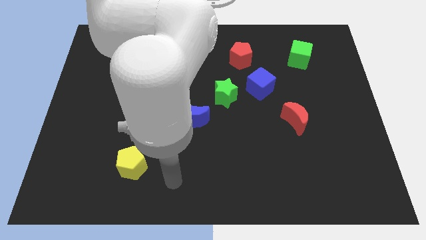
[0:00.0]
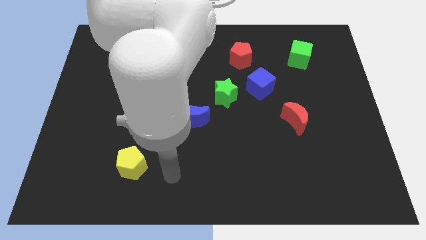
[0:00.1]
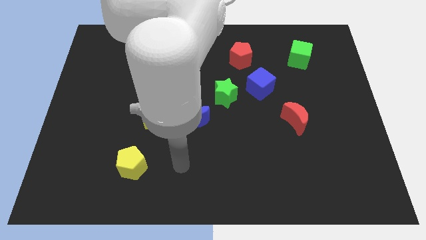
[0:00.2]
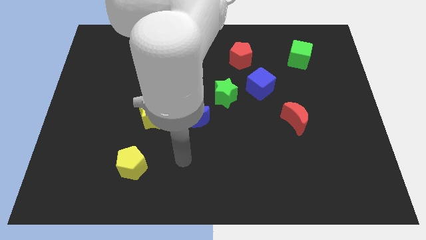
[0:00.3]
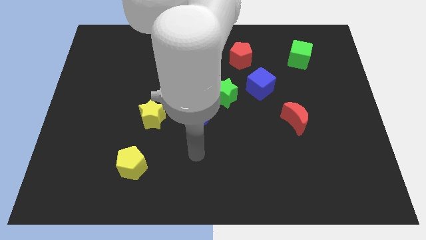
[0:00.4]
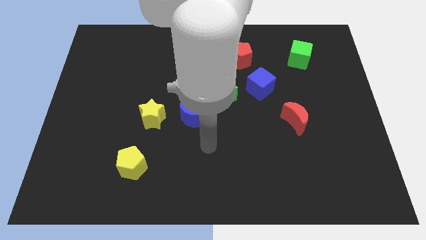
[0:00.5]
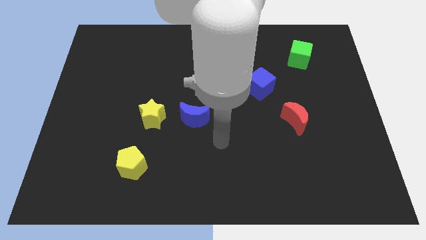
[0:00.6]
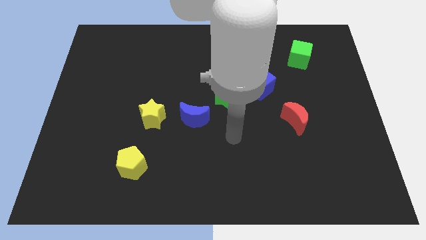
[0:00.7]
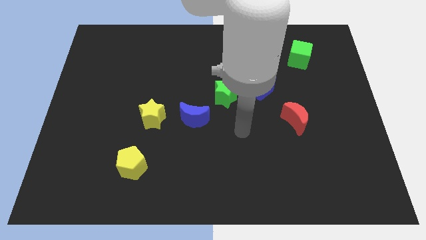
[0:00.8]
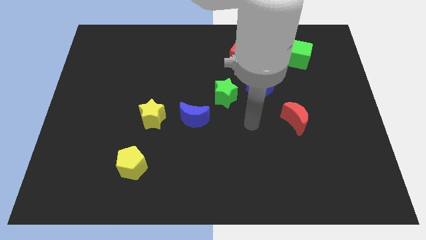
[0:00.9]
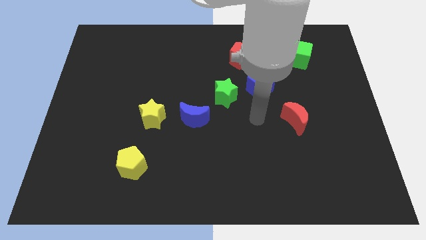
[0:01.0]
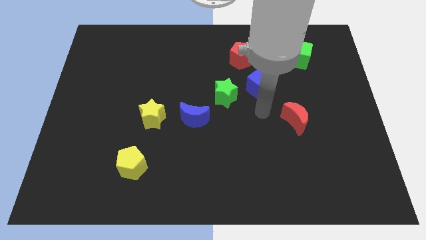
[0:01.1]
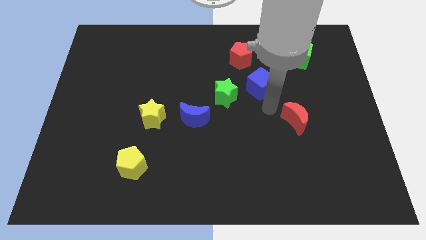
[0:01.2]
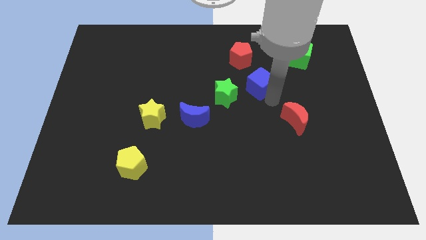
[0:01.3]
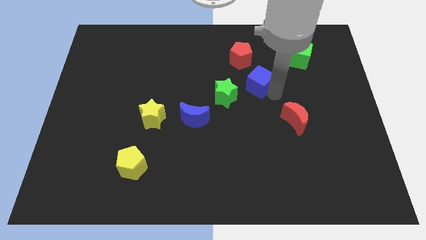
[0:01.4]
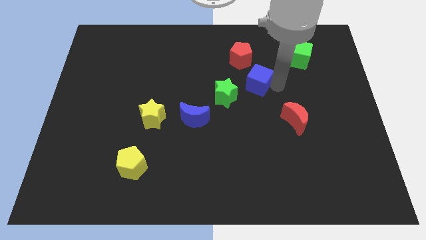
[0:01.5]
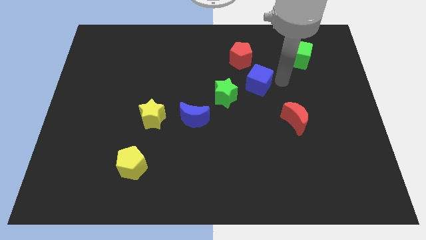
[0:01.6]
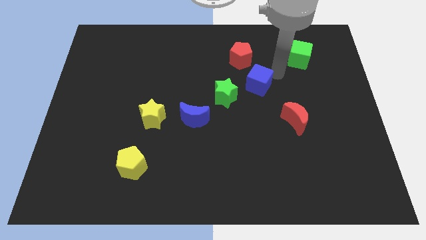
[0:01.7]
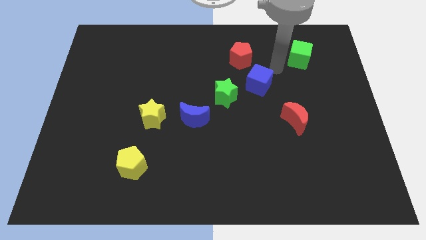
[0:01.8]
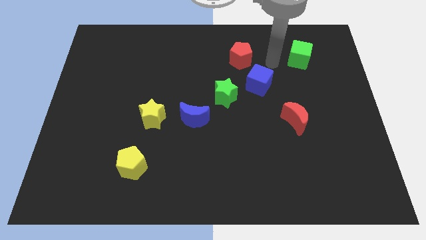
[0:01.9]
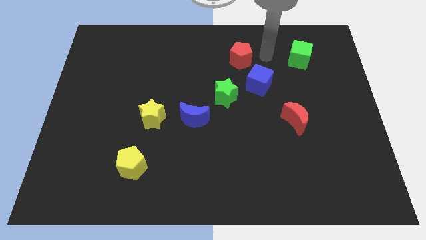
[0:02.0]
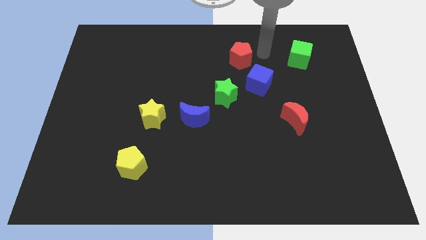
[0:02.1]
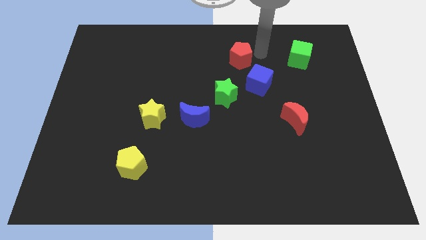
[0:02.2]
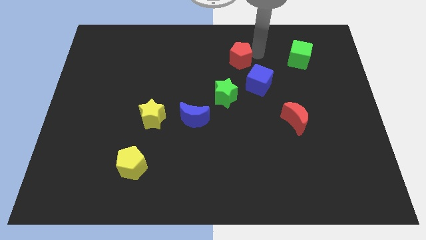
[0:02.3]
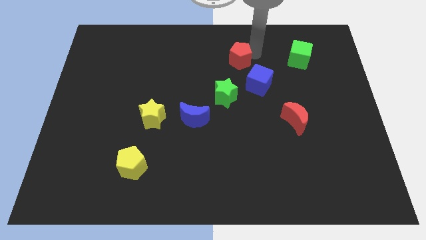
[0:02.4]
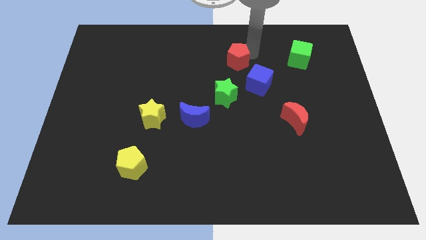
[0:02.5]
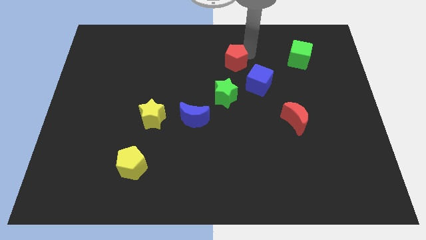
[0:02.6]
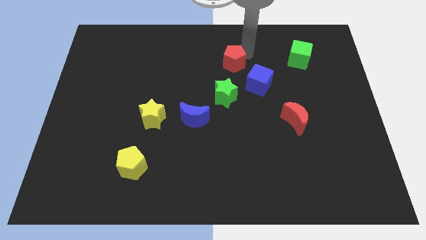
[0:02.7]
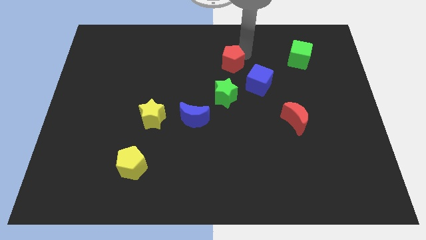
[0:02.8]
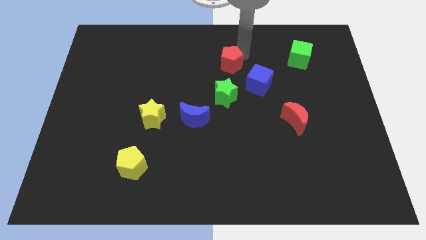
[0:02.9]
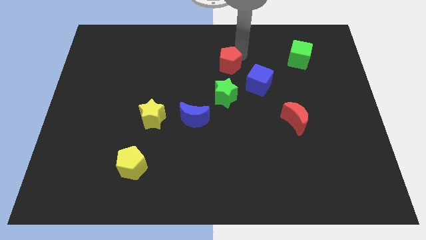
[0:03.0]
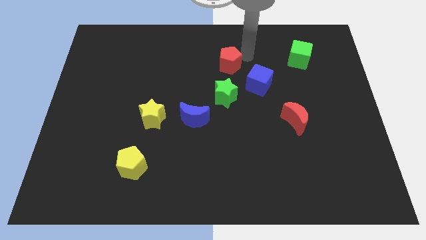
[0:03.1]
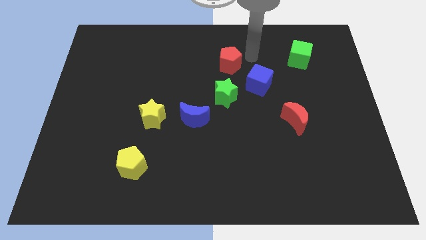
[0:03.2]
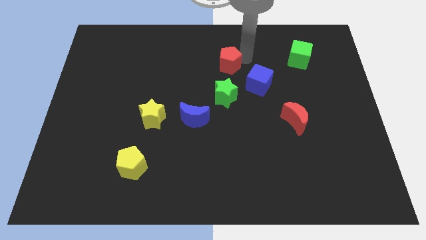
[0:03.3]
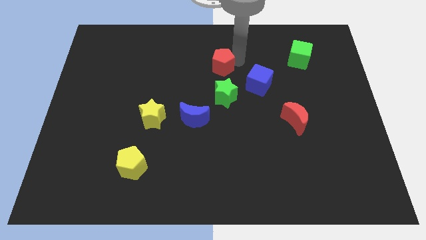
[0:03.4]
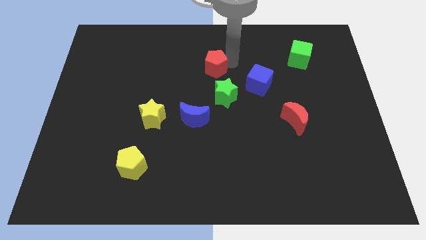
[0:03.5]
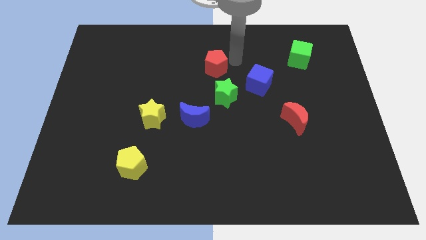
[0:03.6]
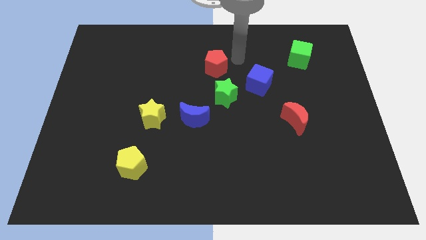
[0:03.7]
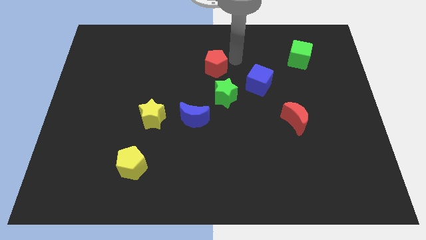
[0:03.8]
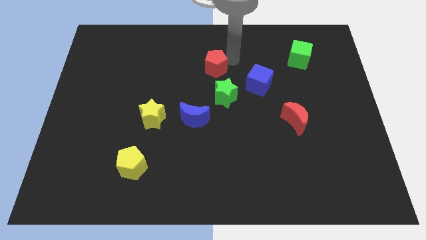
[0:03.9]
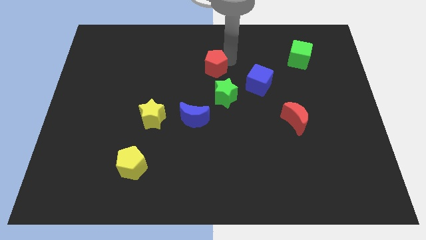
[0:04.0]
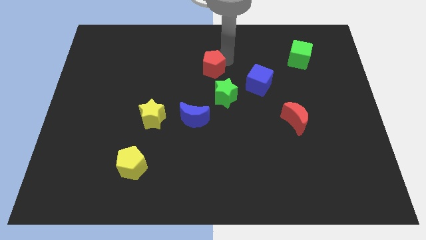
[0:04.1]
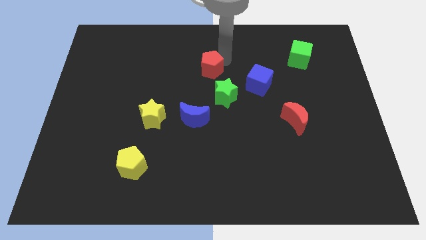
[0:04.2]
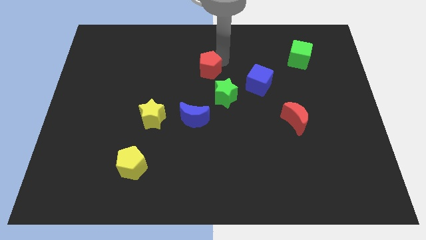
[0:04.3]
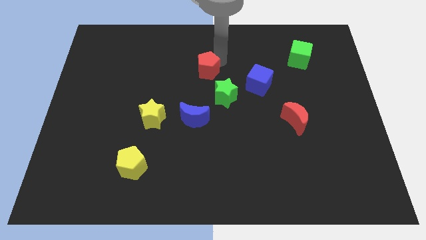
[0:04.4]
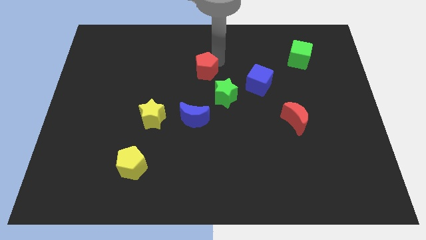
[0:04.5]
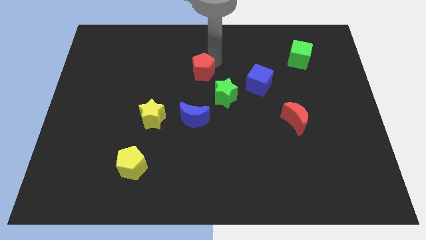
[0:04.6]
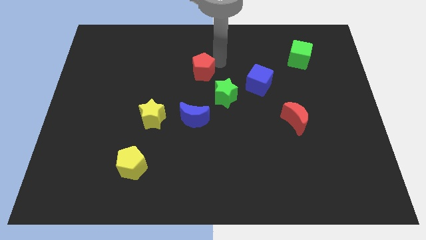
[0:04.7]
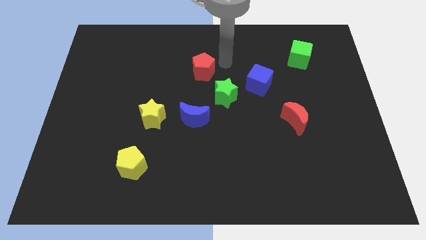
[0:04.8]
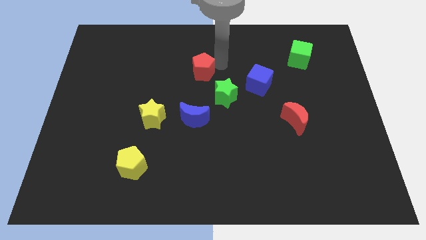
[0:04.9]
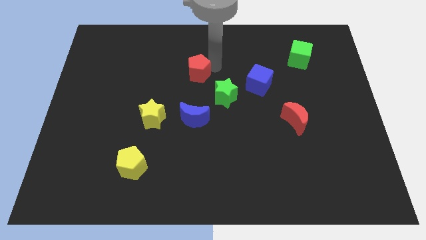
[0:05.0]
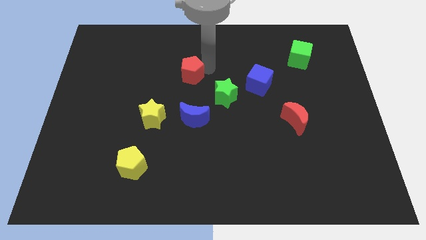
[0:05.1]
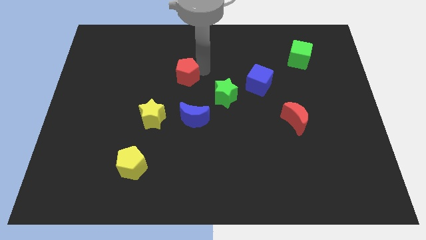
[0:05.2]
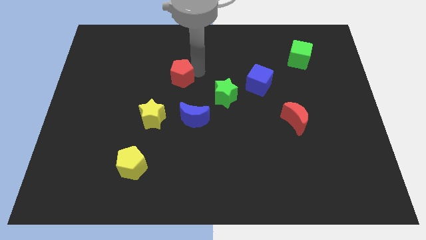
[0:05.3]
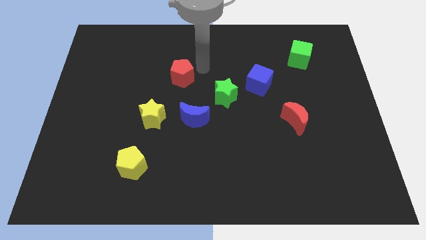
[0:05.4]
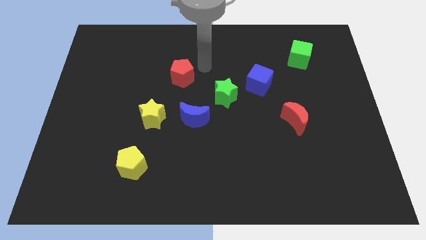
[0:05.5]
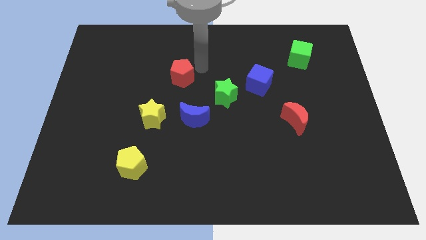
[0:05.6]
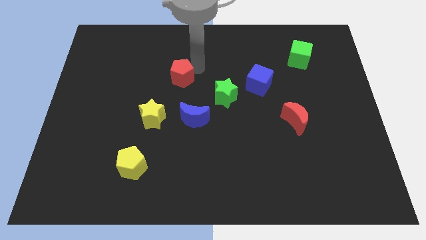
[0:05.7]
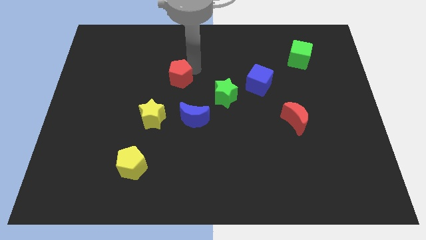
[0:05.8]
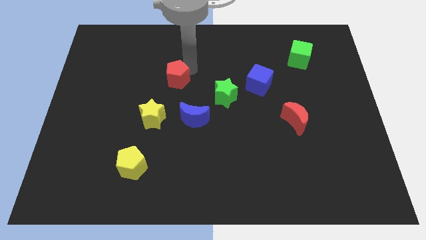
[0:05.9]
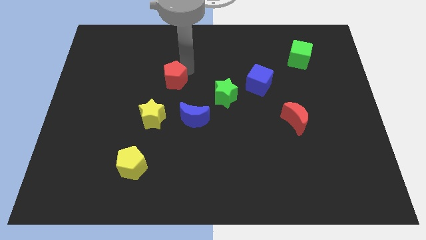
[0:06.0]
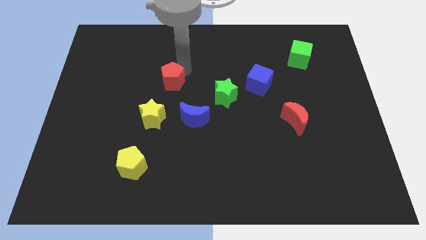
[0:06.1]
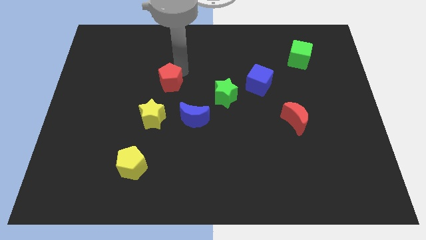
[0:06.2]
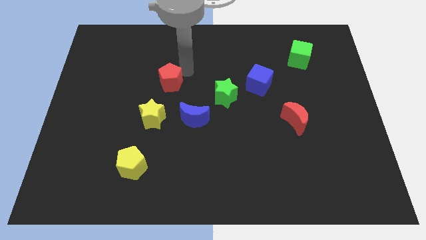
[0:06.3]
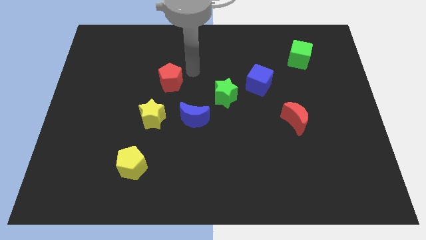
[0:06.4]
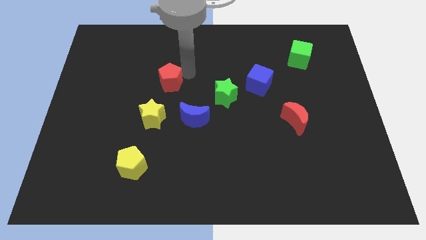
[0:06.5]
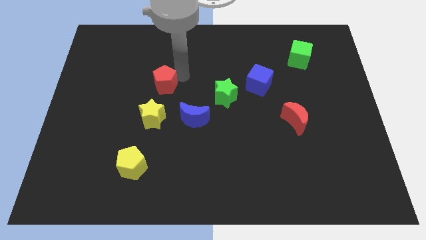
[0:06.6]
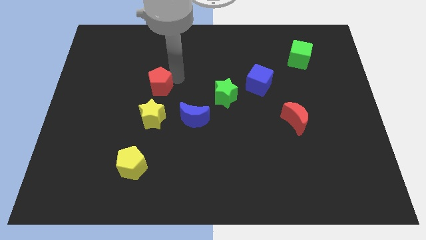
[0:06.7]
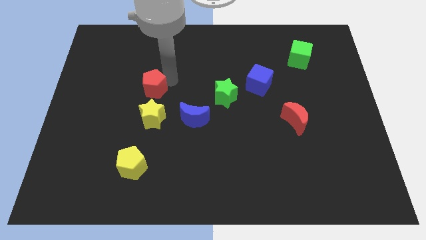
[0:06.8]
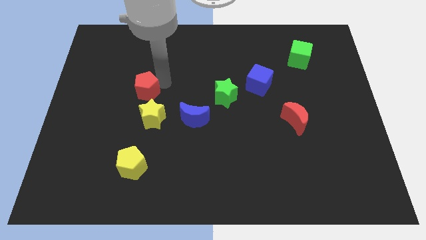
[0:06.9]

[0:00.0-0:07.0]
move the red pentagon to the top left of the yellow star
